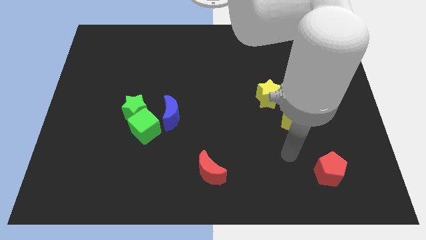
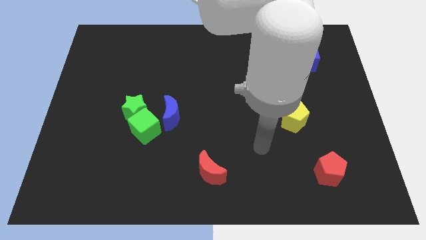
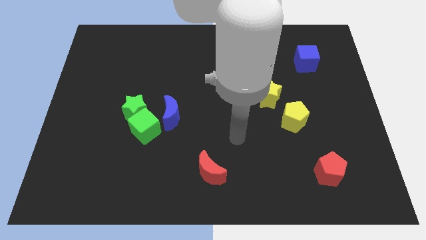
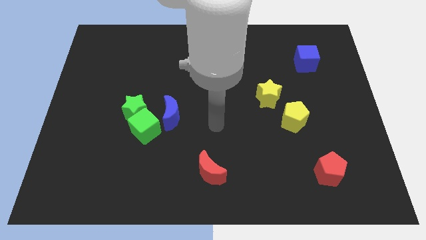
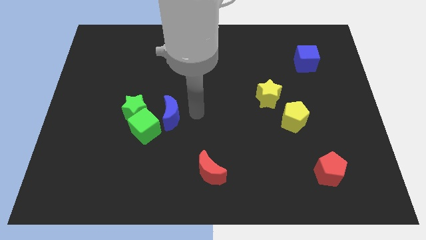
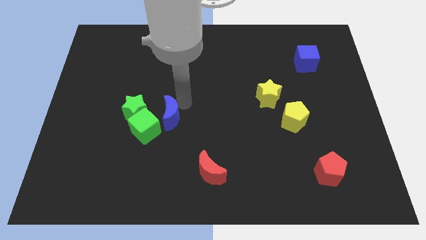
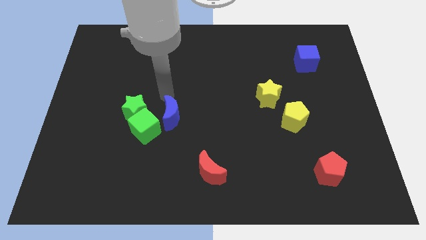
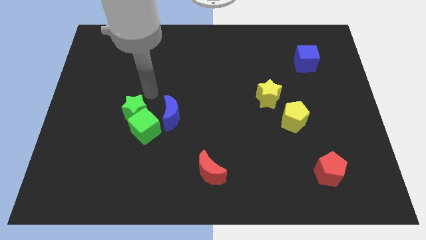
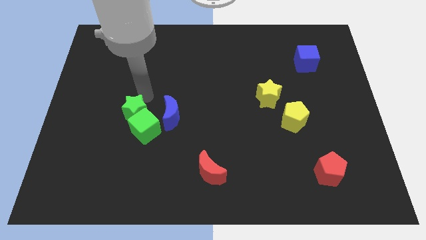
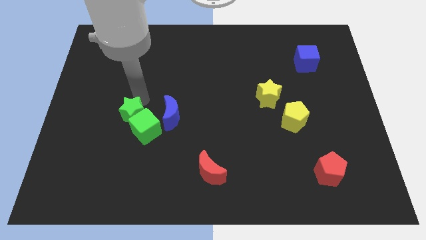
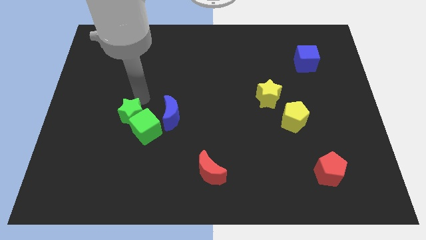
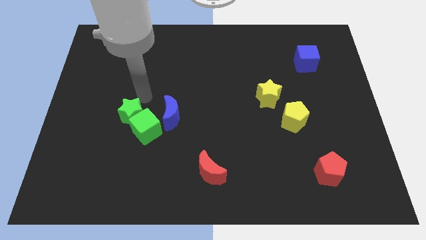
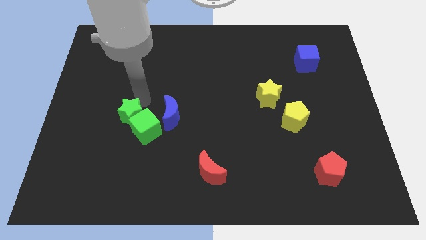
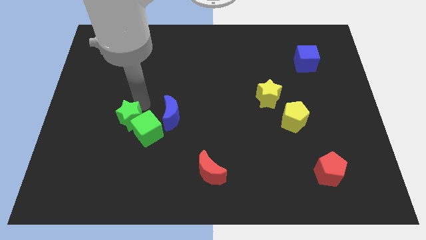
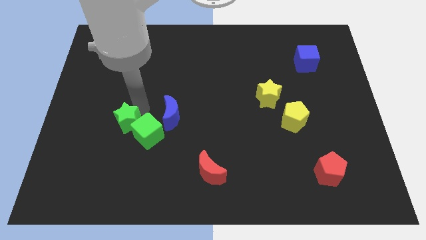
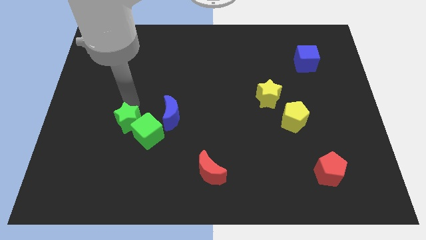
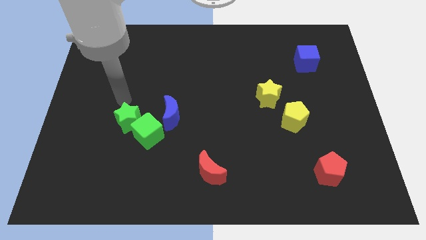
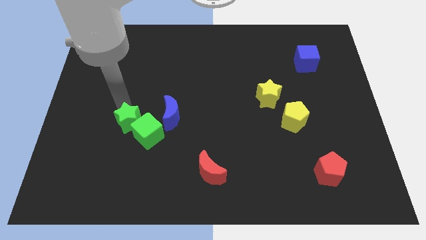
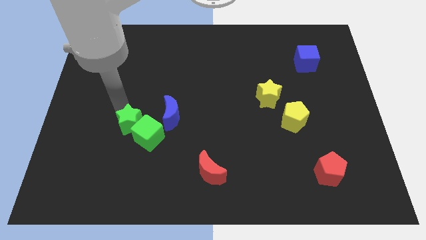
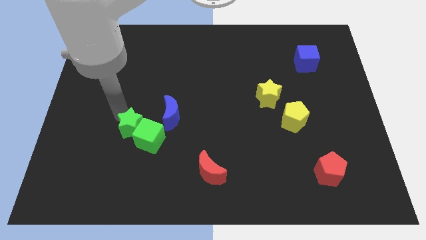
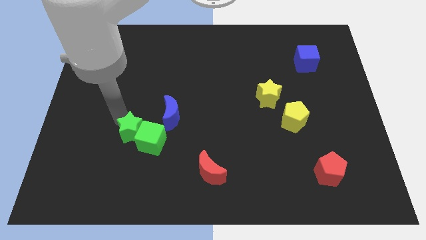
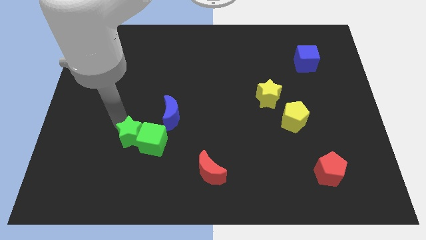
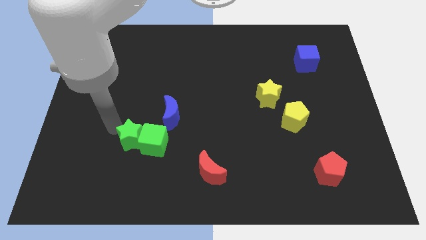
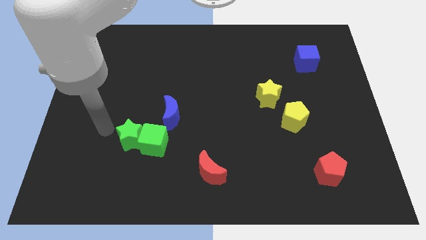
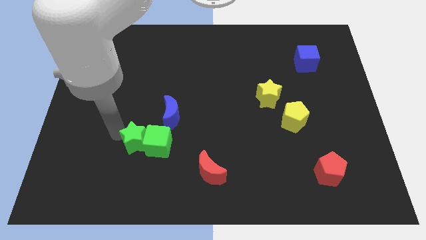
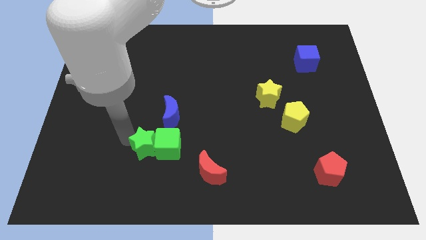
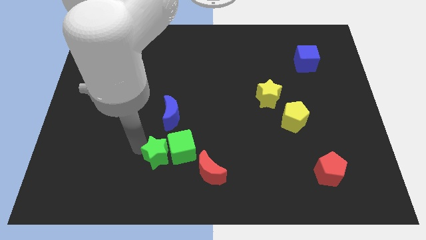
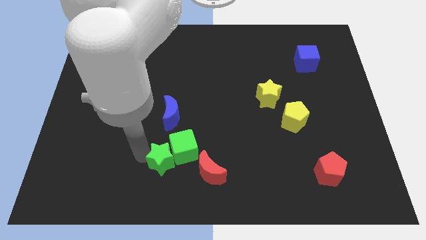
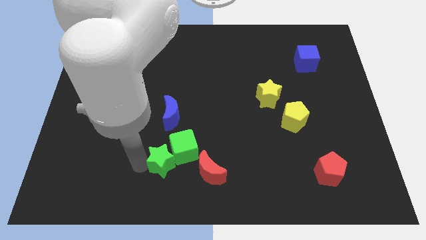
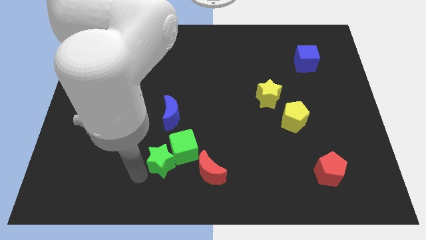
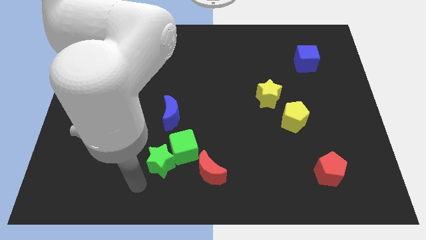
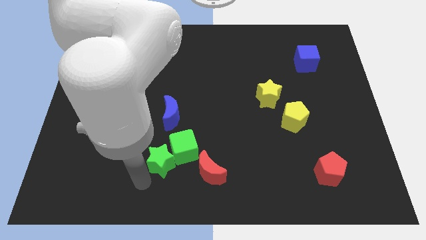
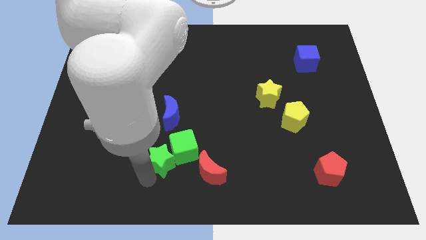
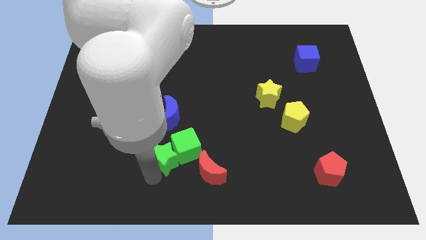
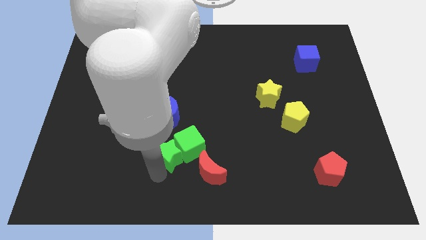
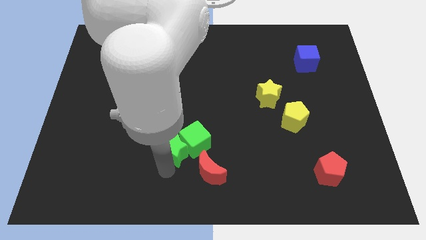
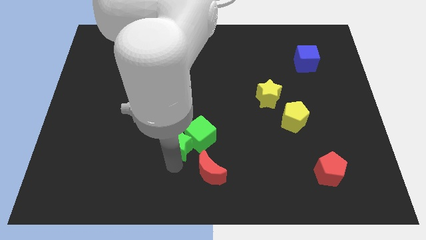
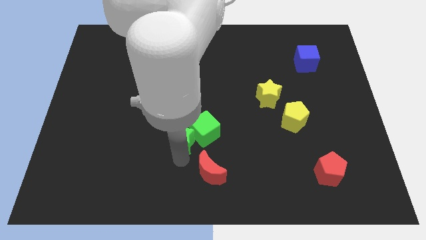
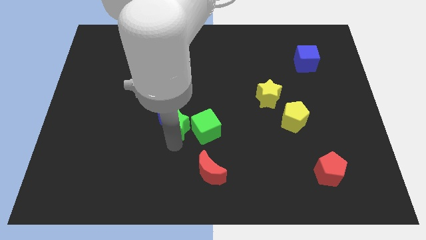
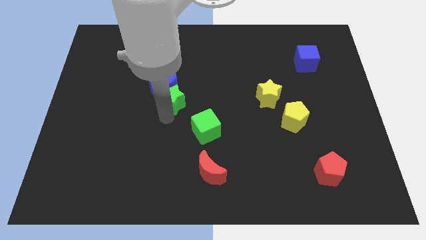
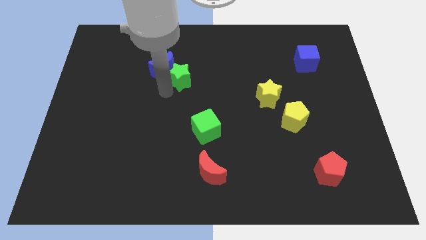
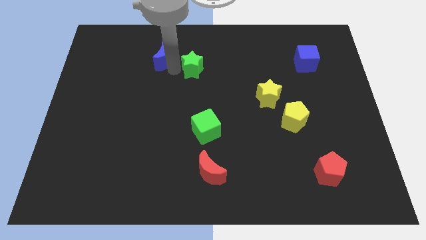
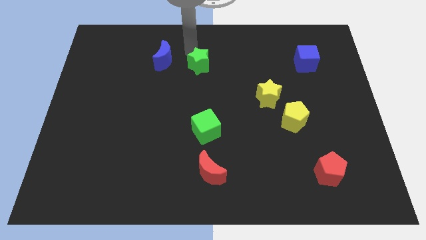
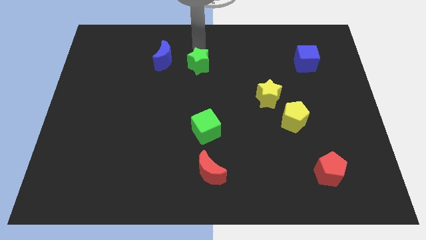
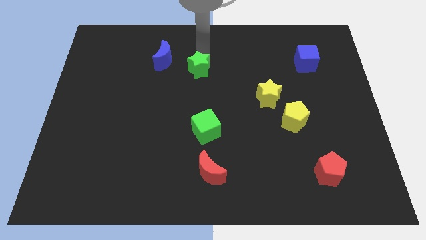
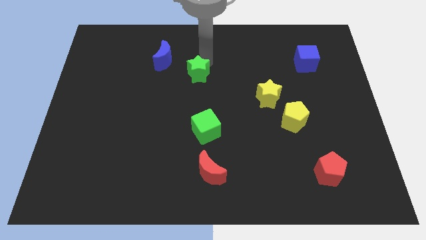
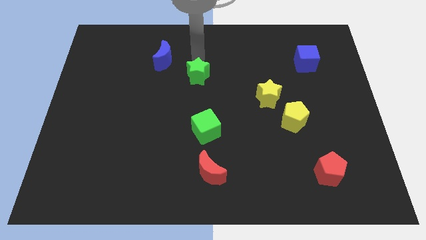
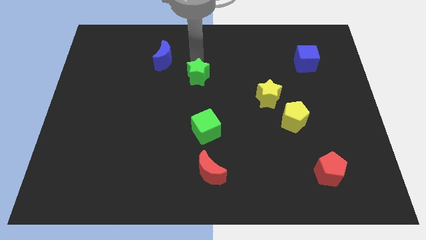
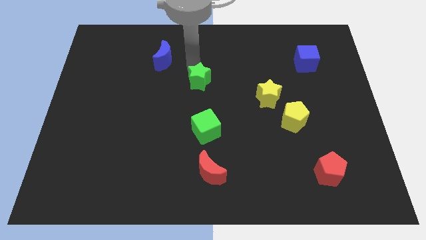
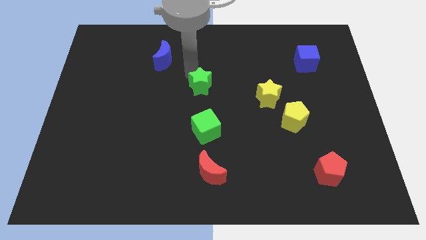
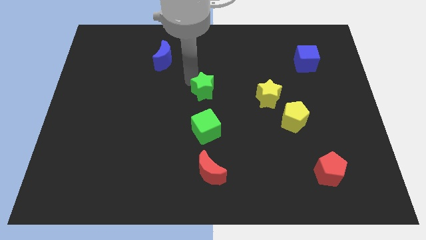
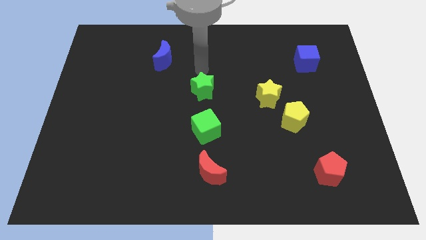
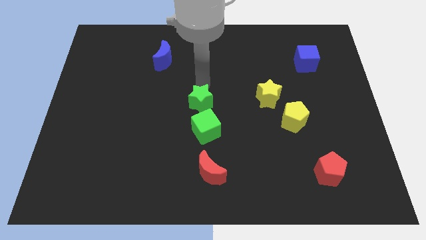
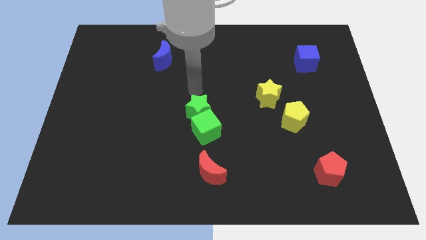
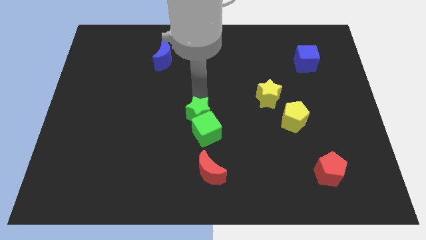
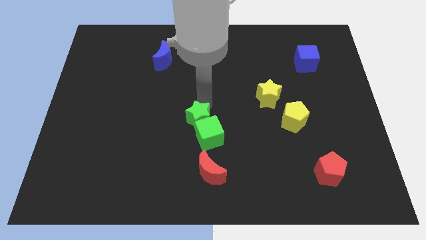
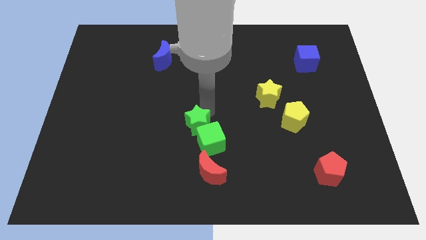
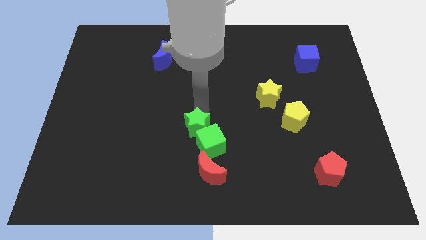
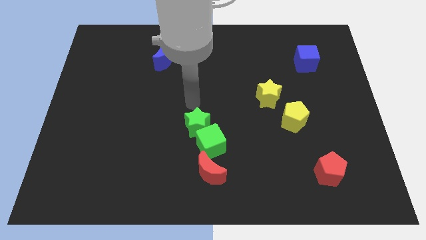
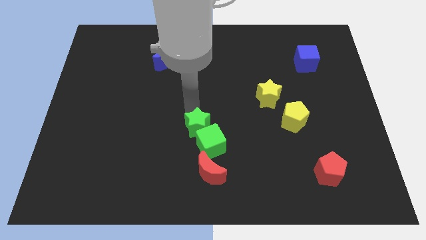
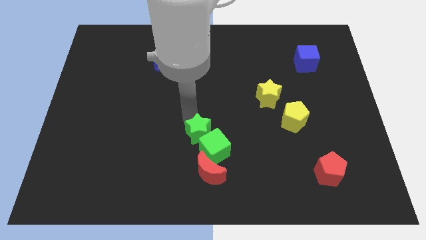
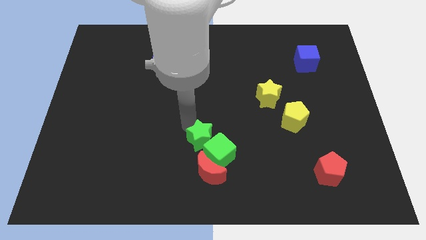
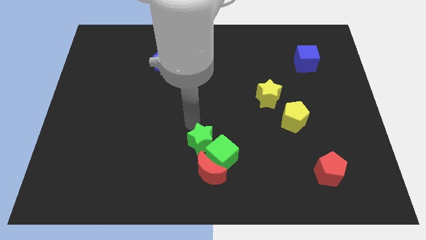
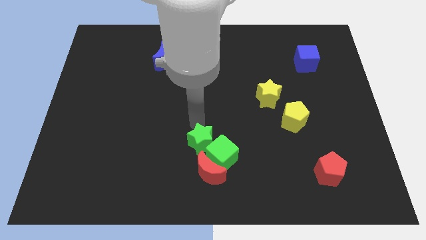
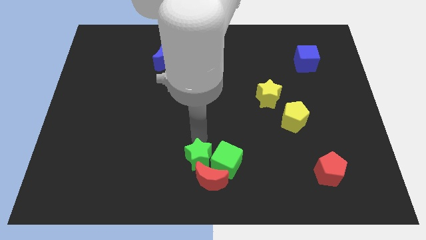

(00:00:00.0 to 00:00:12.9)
push the green star close to the red moon
